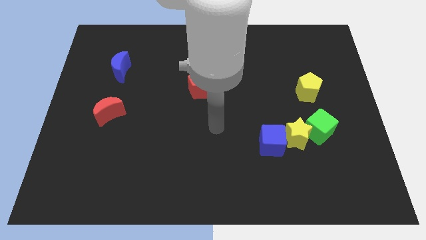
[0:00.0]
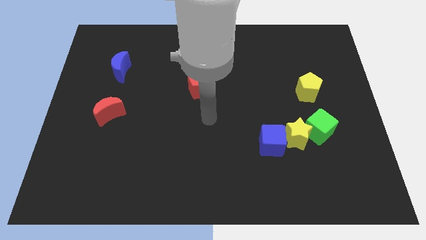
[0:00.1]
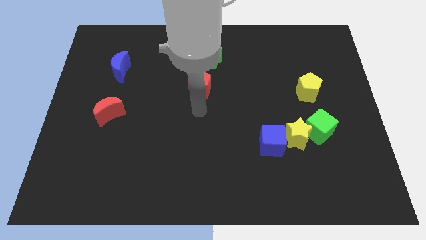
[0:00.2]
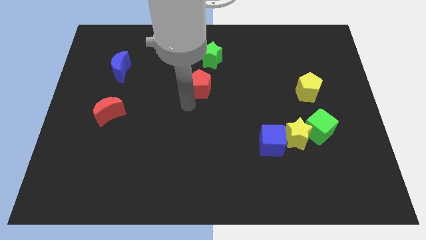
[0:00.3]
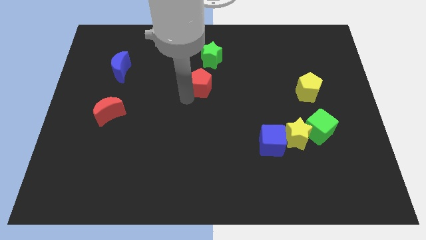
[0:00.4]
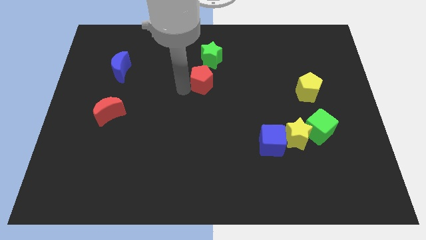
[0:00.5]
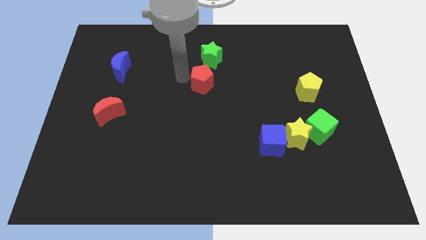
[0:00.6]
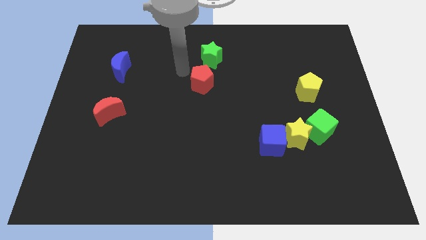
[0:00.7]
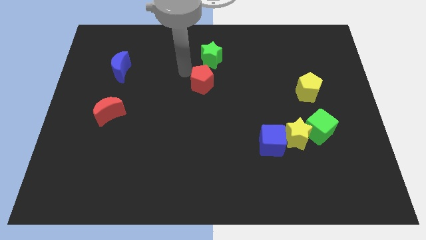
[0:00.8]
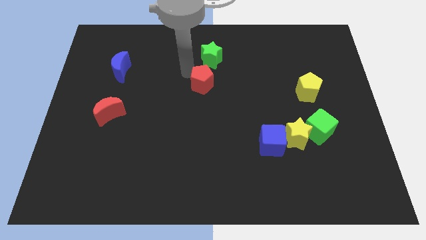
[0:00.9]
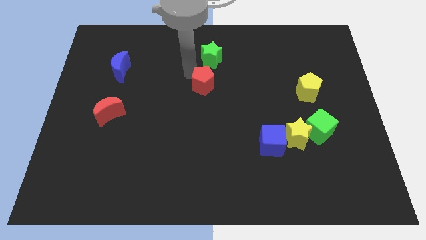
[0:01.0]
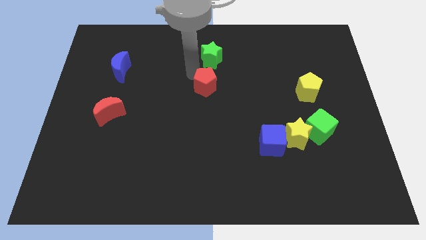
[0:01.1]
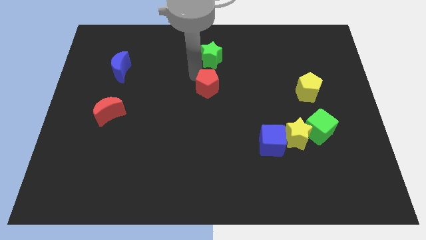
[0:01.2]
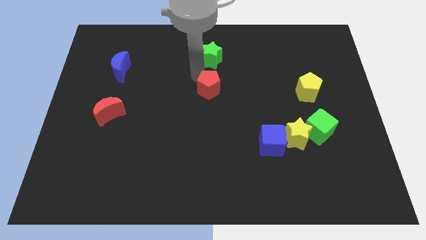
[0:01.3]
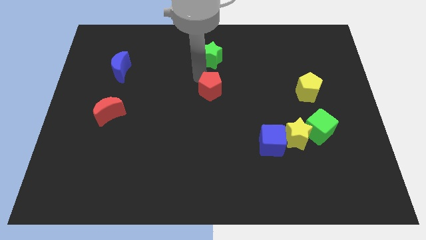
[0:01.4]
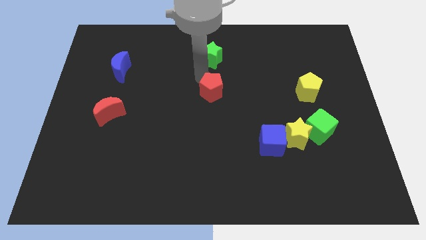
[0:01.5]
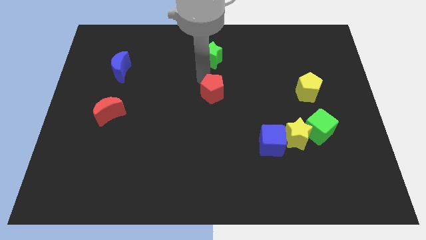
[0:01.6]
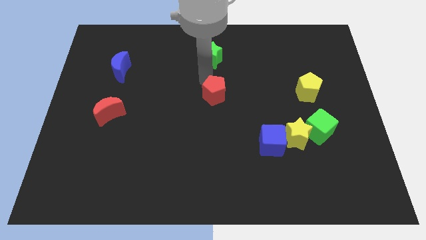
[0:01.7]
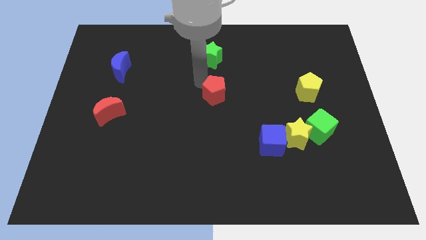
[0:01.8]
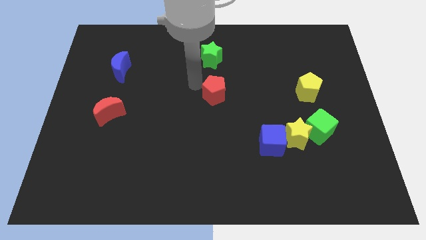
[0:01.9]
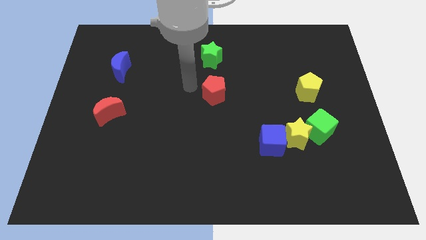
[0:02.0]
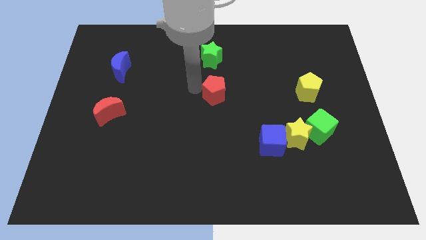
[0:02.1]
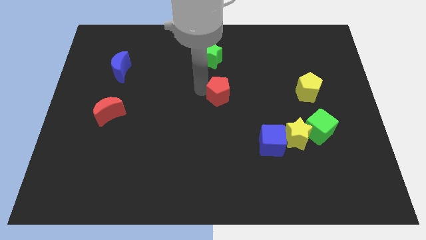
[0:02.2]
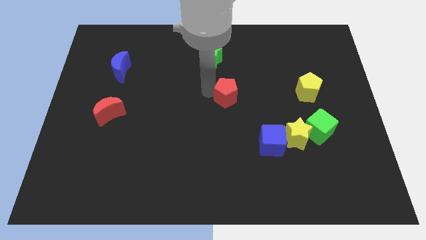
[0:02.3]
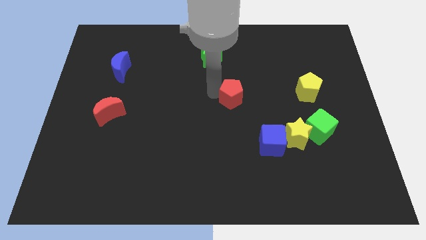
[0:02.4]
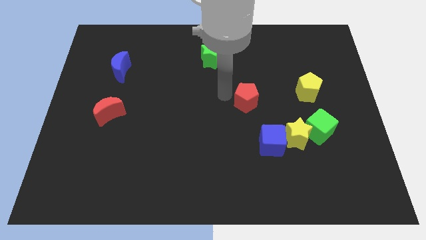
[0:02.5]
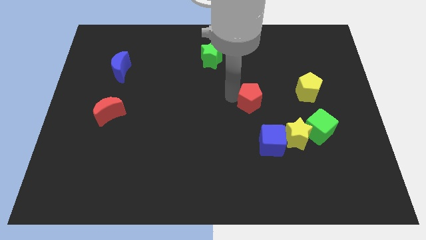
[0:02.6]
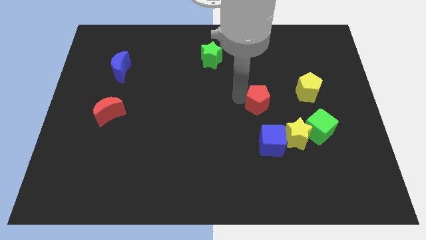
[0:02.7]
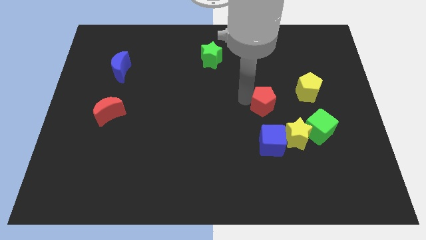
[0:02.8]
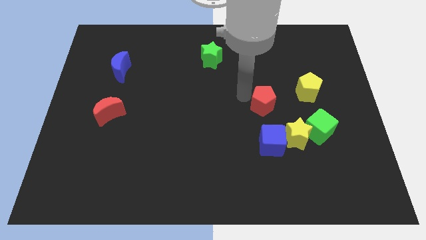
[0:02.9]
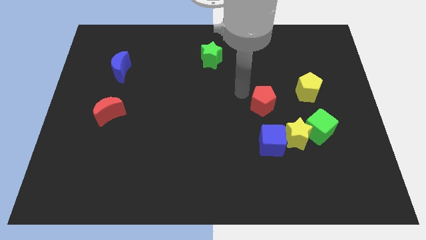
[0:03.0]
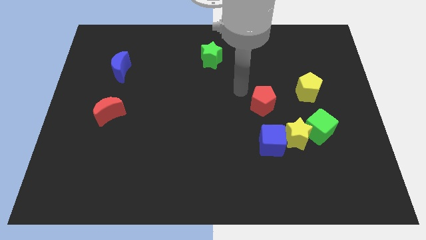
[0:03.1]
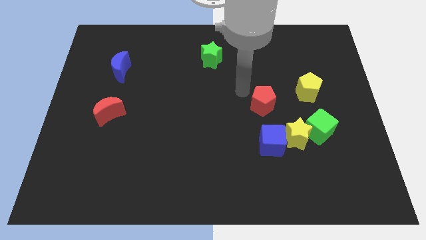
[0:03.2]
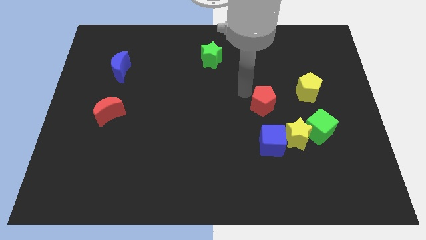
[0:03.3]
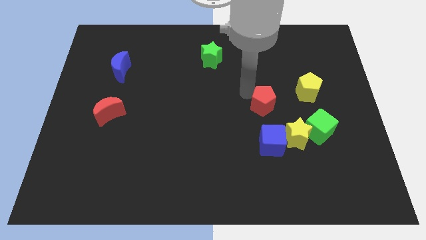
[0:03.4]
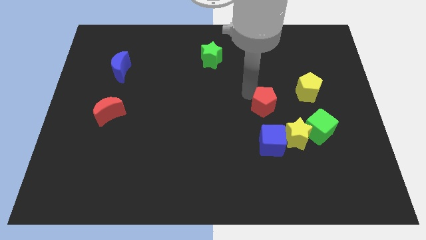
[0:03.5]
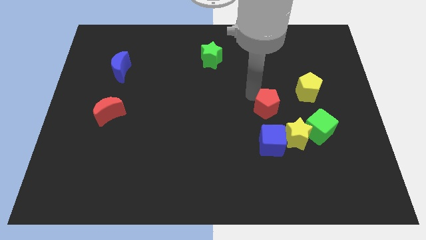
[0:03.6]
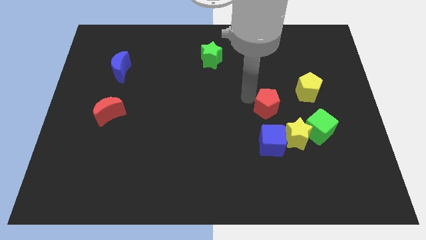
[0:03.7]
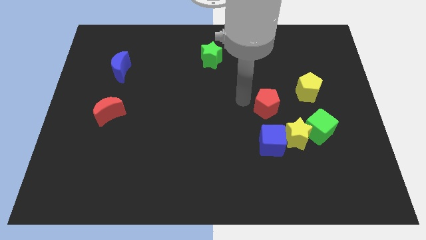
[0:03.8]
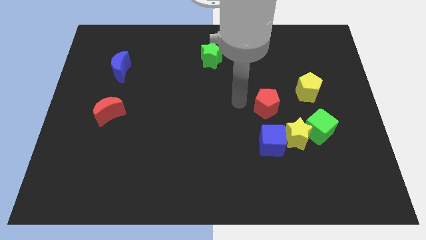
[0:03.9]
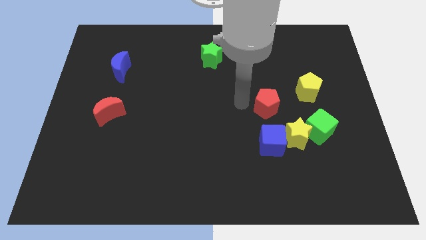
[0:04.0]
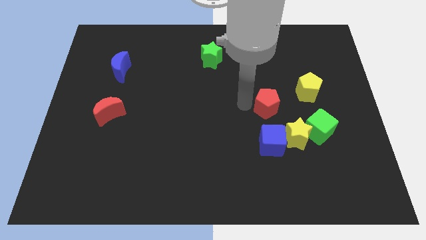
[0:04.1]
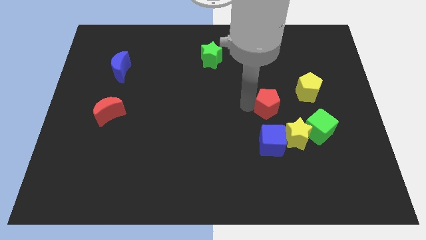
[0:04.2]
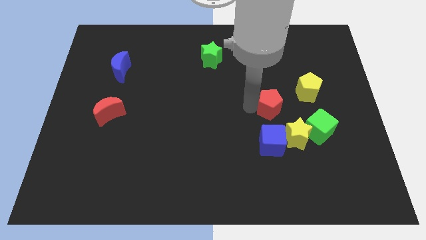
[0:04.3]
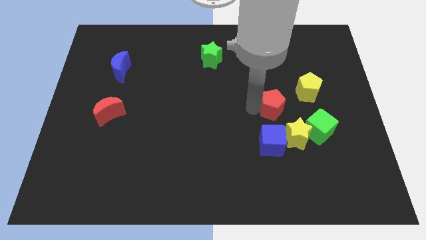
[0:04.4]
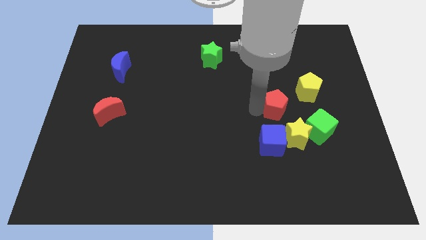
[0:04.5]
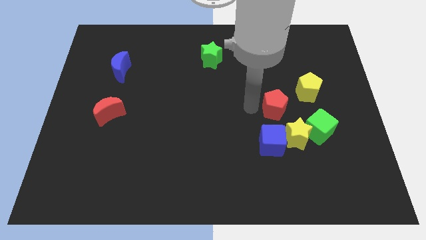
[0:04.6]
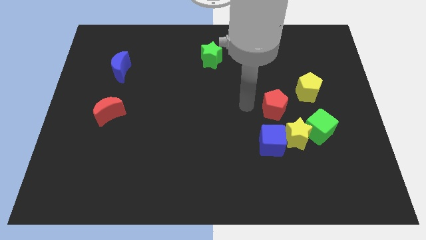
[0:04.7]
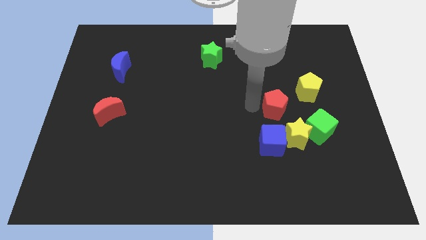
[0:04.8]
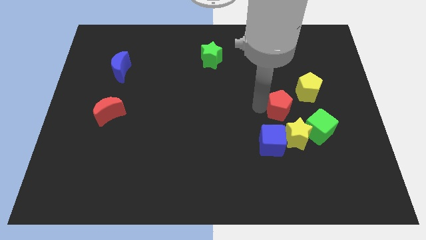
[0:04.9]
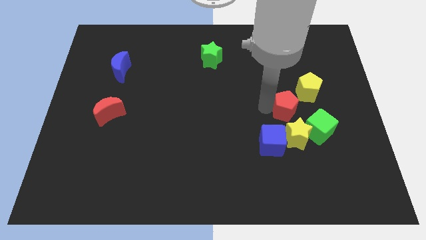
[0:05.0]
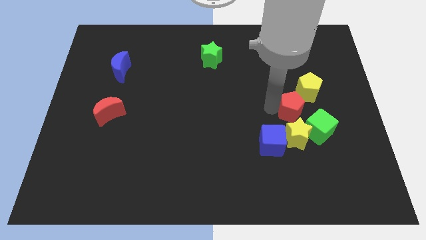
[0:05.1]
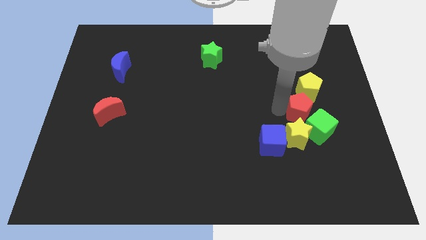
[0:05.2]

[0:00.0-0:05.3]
push the red pentagon to the right

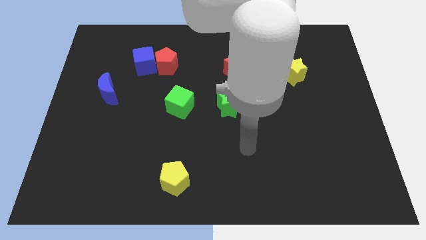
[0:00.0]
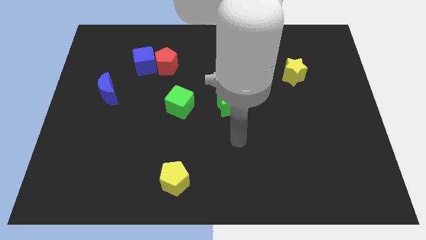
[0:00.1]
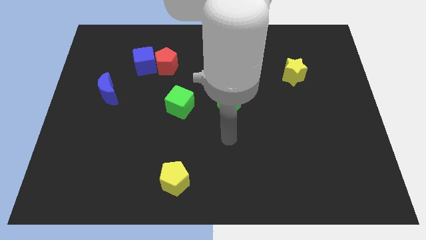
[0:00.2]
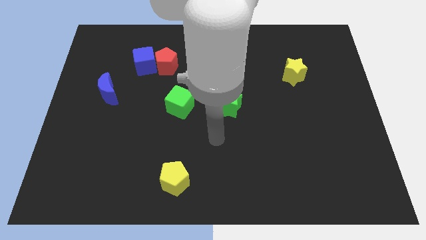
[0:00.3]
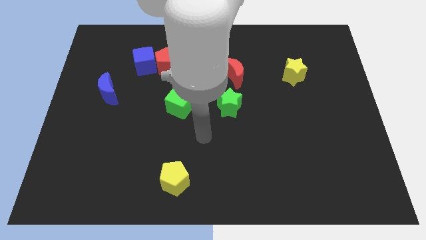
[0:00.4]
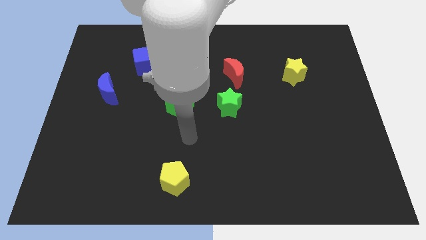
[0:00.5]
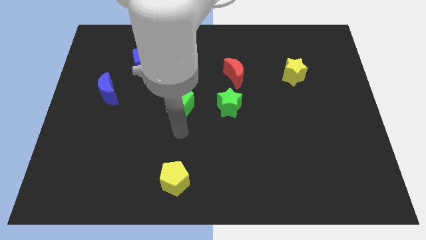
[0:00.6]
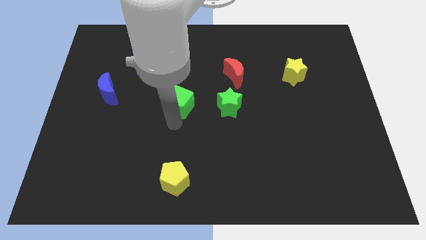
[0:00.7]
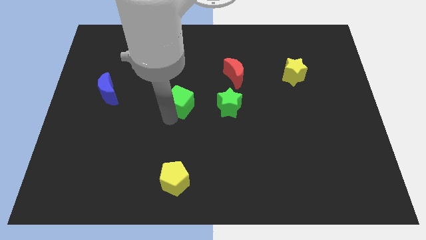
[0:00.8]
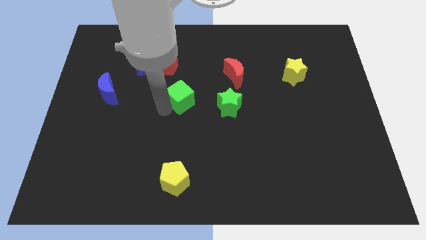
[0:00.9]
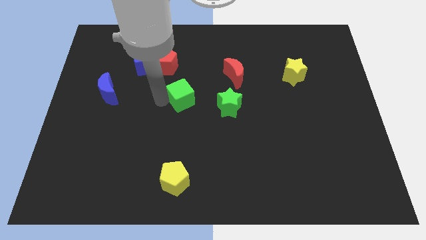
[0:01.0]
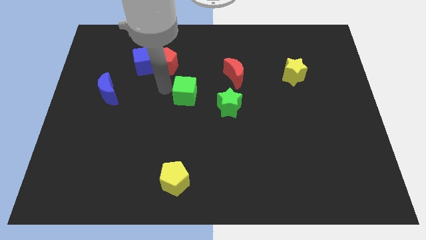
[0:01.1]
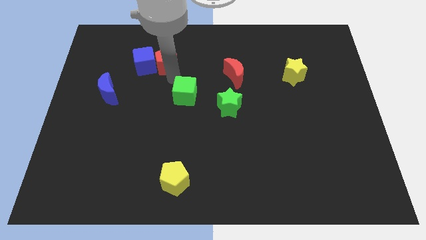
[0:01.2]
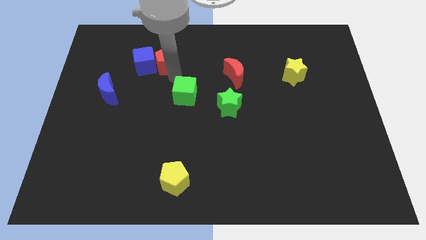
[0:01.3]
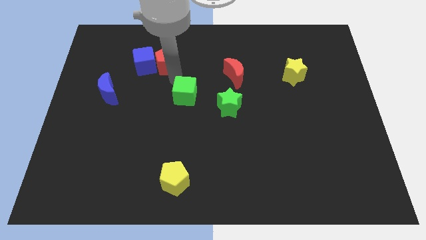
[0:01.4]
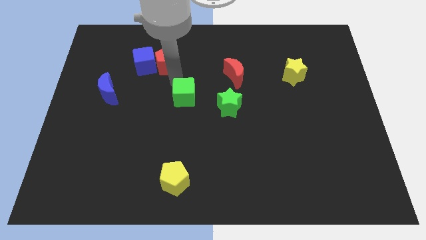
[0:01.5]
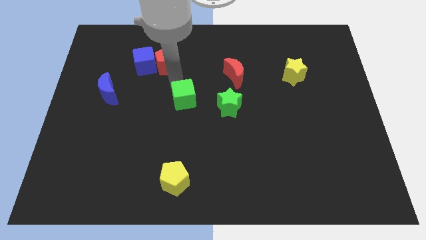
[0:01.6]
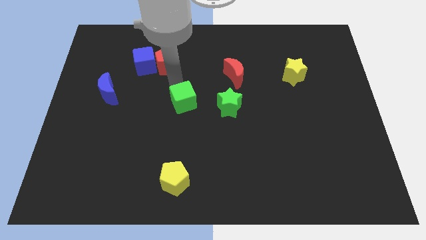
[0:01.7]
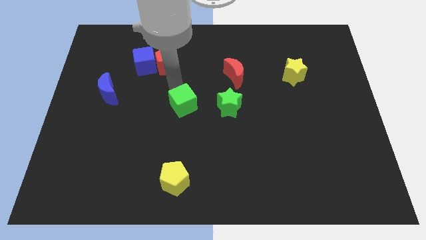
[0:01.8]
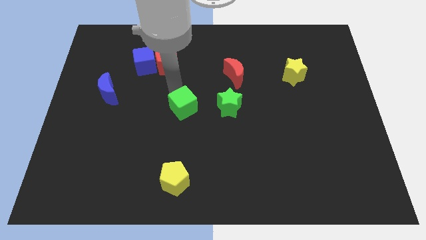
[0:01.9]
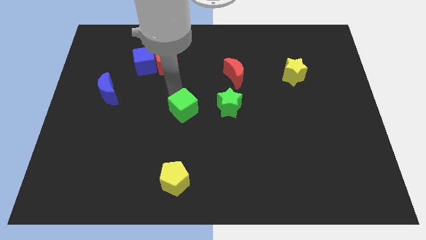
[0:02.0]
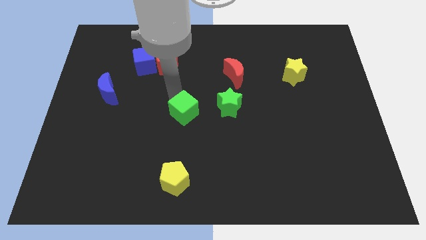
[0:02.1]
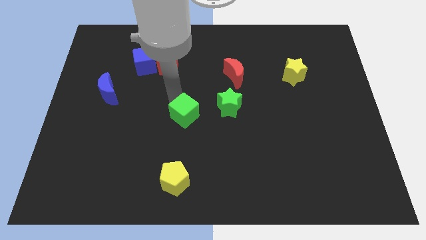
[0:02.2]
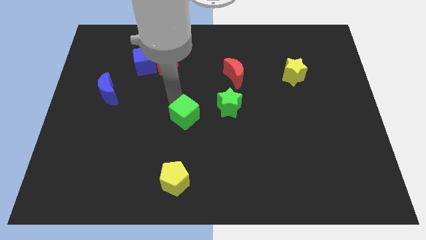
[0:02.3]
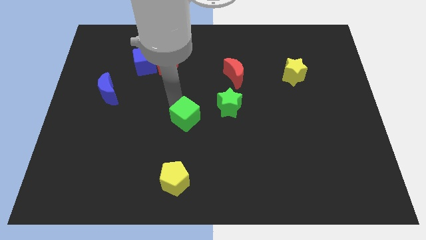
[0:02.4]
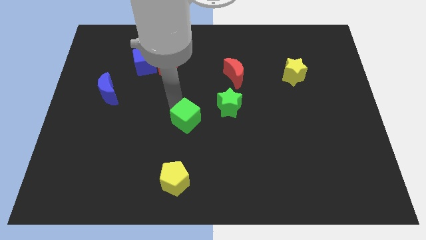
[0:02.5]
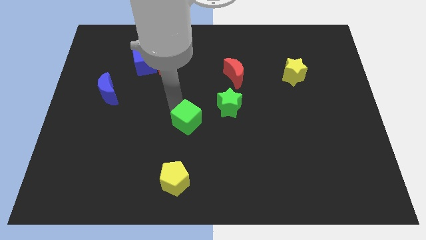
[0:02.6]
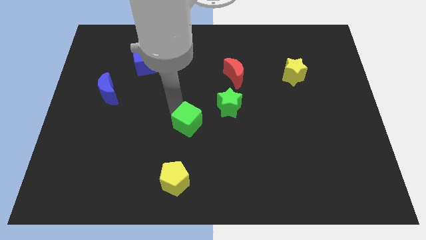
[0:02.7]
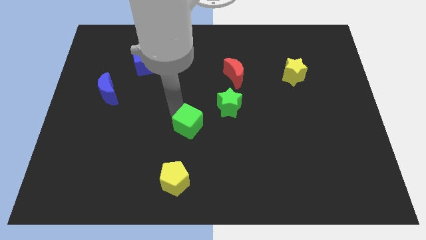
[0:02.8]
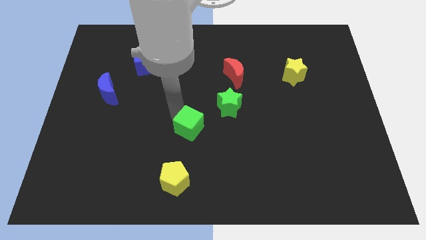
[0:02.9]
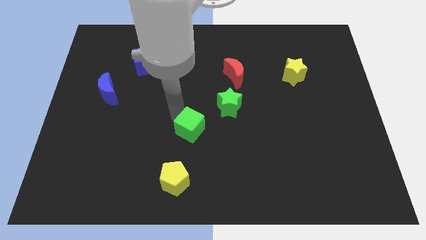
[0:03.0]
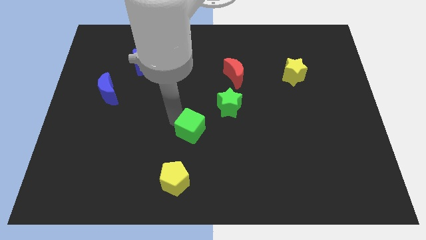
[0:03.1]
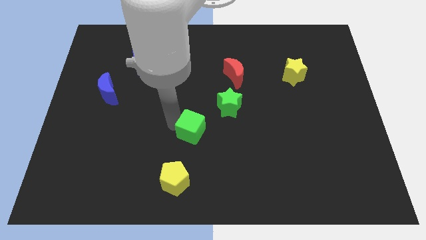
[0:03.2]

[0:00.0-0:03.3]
slightly push the green cube downwards and to the right

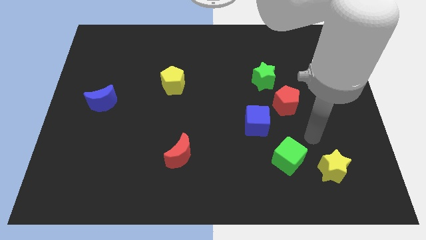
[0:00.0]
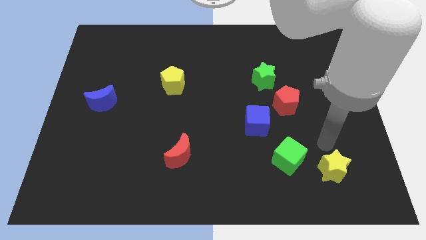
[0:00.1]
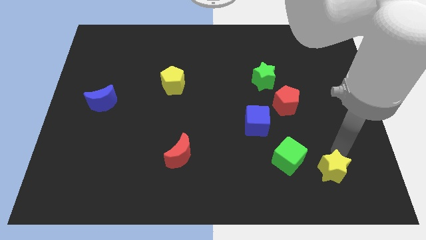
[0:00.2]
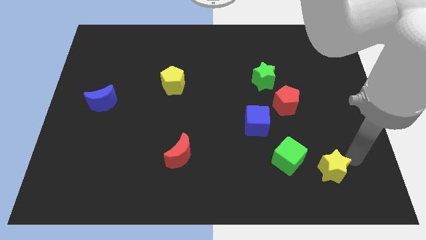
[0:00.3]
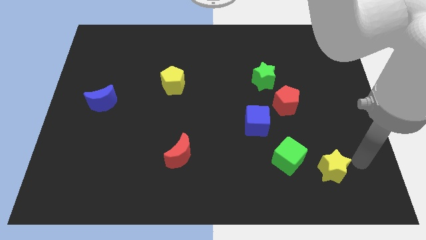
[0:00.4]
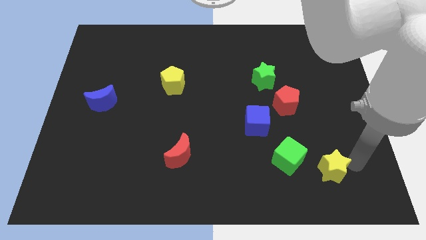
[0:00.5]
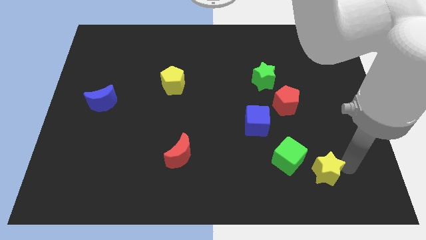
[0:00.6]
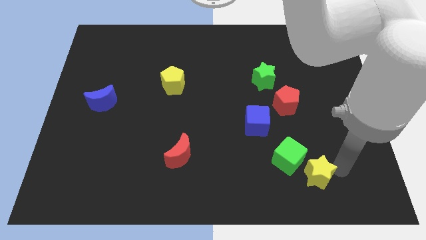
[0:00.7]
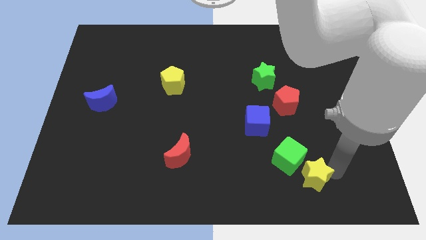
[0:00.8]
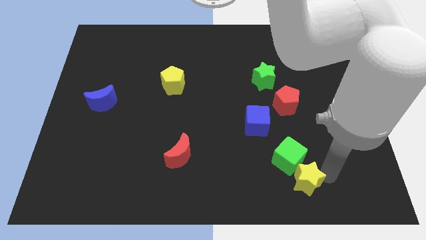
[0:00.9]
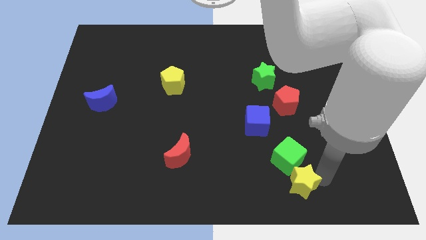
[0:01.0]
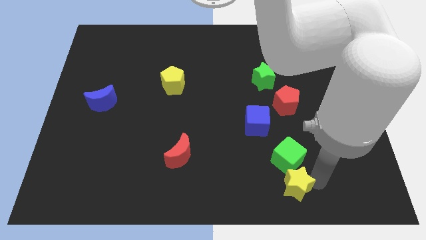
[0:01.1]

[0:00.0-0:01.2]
slightly push the yellow star left
